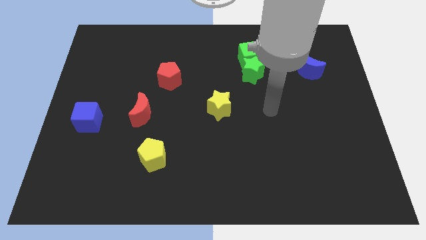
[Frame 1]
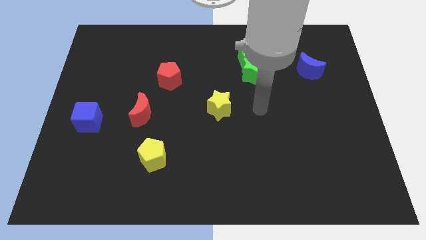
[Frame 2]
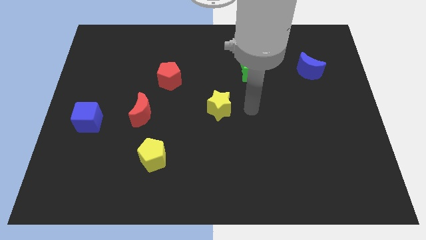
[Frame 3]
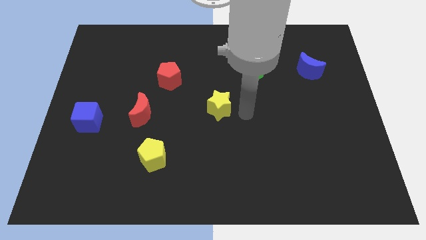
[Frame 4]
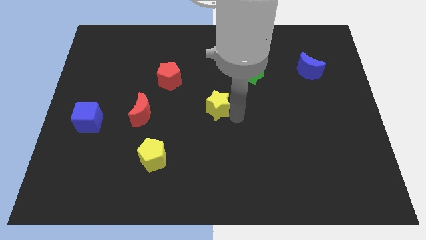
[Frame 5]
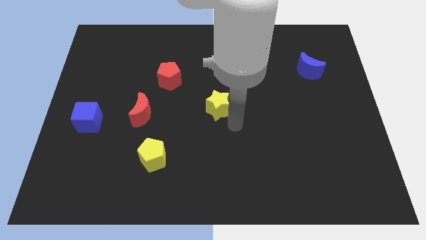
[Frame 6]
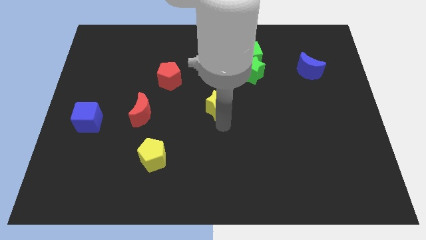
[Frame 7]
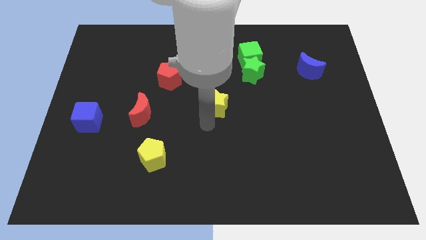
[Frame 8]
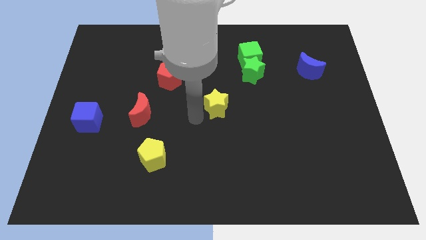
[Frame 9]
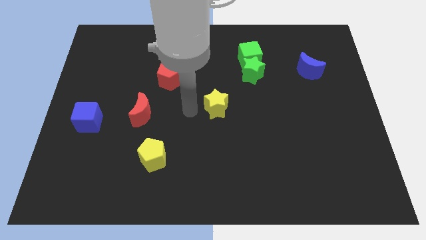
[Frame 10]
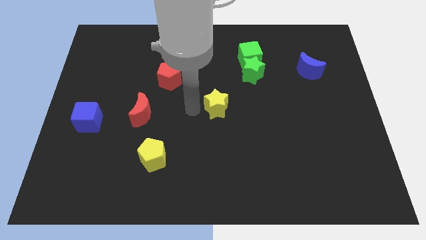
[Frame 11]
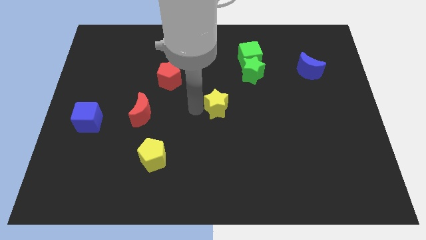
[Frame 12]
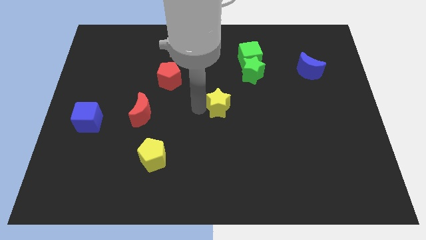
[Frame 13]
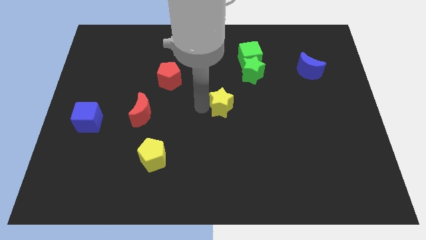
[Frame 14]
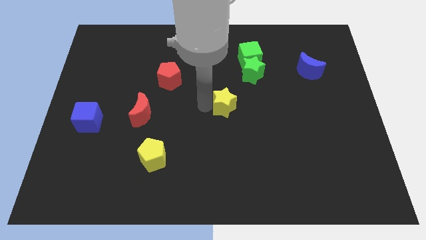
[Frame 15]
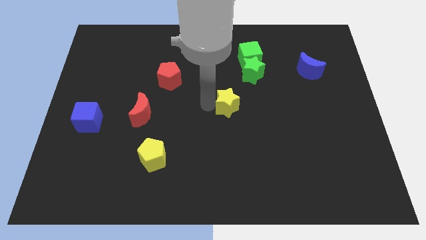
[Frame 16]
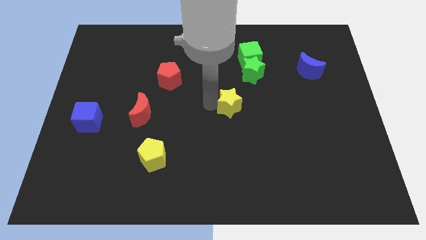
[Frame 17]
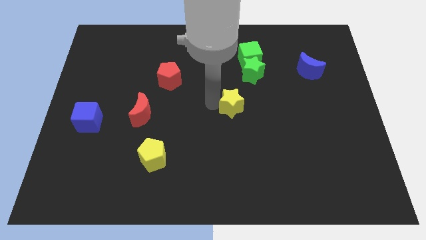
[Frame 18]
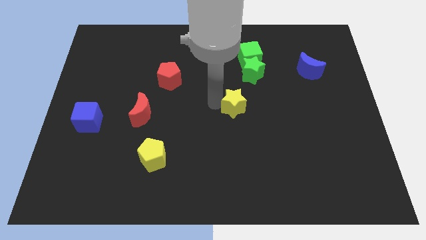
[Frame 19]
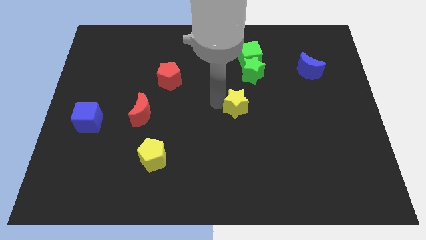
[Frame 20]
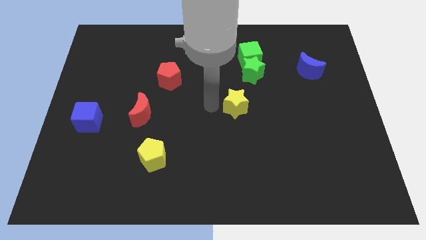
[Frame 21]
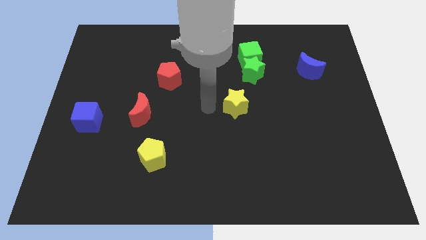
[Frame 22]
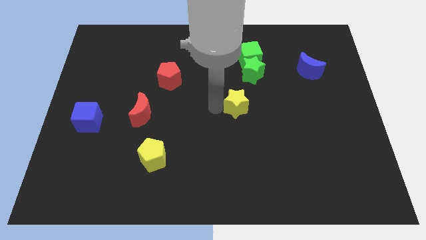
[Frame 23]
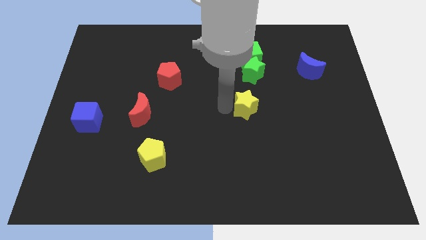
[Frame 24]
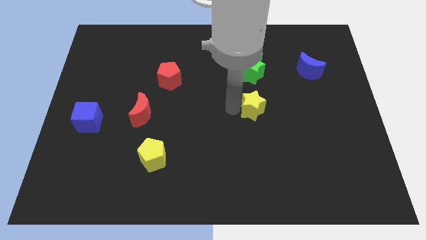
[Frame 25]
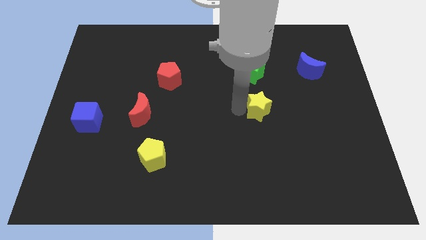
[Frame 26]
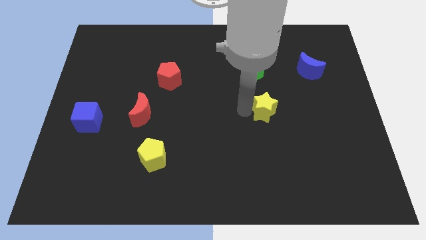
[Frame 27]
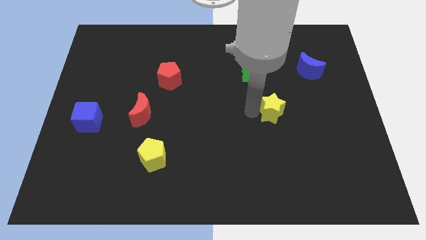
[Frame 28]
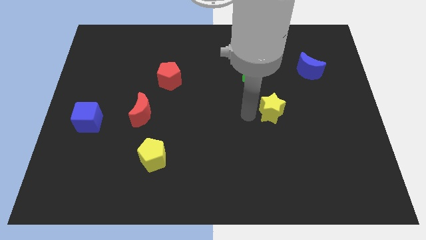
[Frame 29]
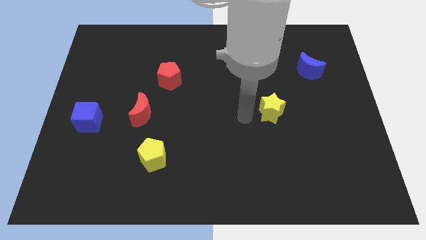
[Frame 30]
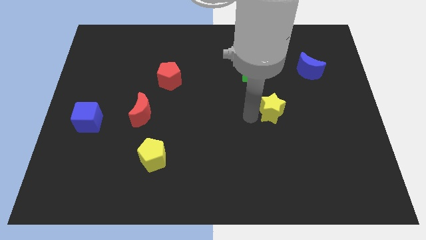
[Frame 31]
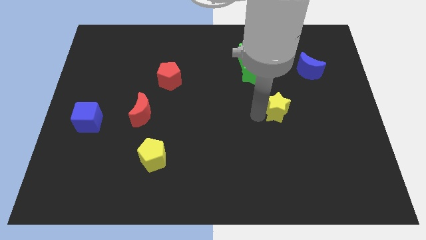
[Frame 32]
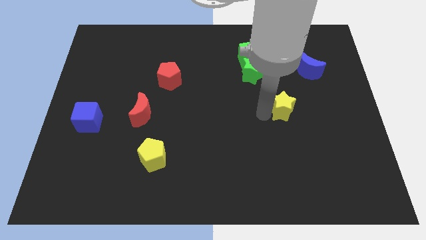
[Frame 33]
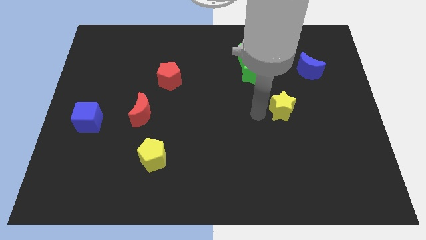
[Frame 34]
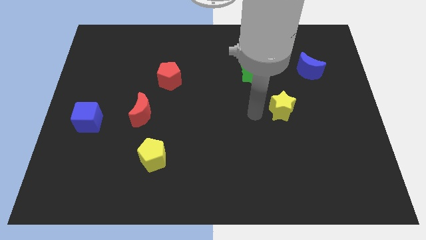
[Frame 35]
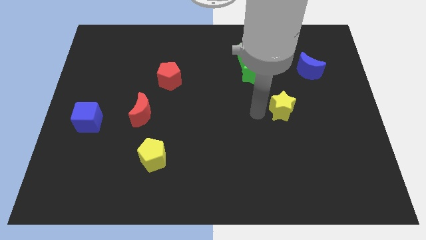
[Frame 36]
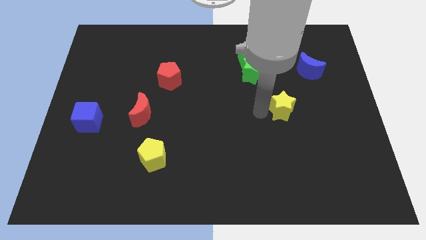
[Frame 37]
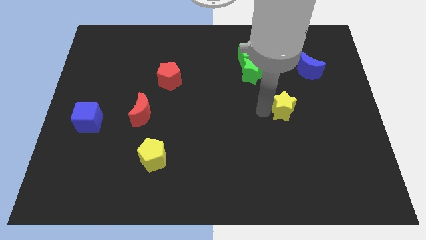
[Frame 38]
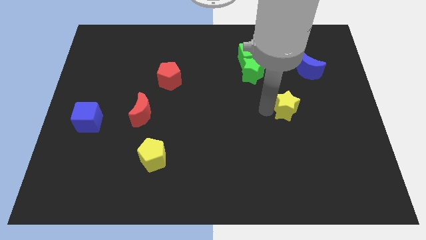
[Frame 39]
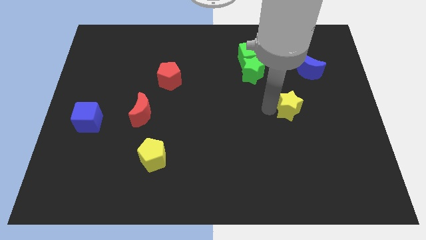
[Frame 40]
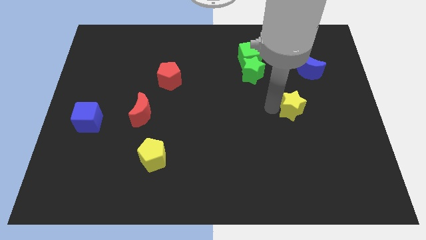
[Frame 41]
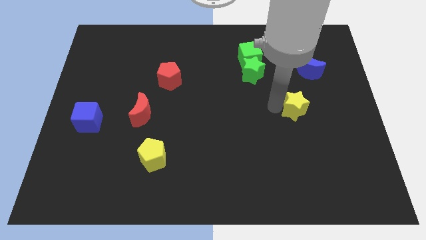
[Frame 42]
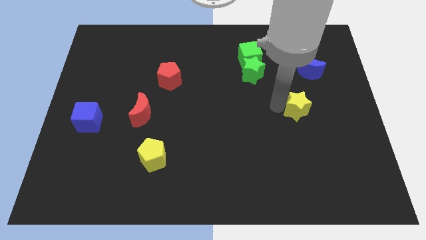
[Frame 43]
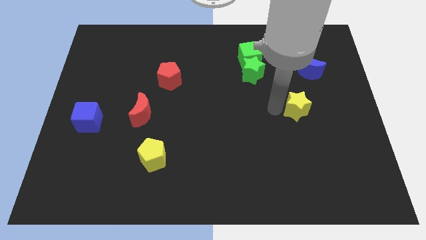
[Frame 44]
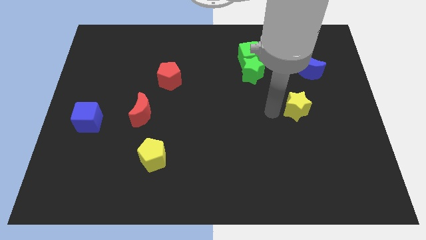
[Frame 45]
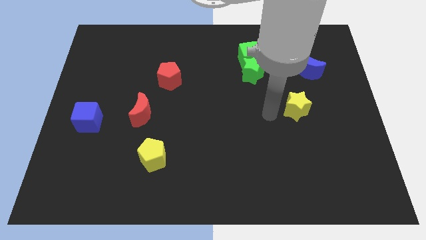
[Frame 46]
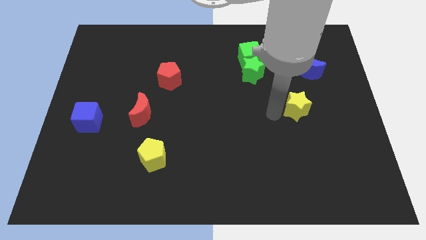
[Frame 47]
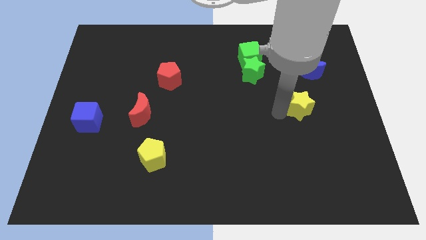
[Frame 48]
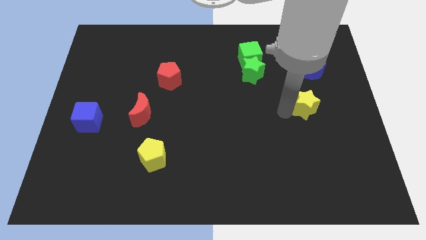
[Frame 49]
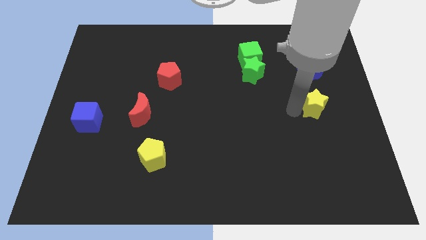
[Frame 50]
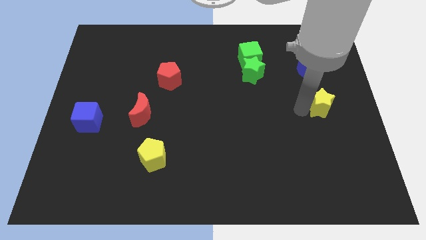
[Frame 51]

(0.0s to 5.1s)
slide the yellow star to the right side of the board

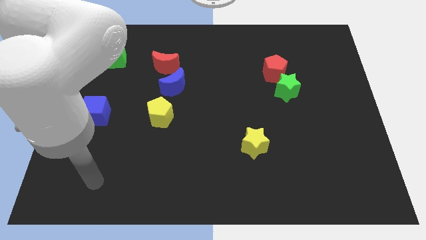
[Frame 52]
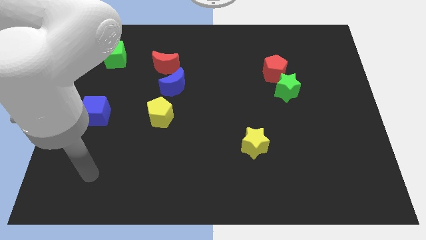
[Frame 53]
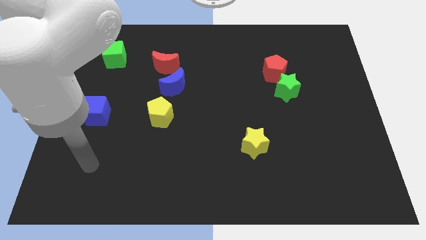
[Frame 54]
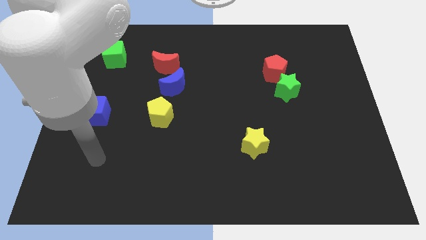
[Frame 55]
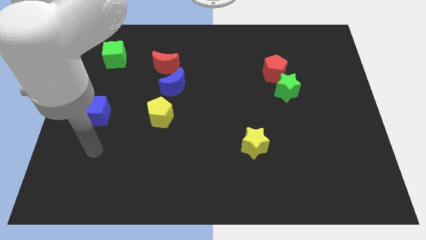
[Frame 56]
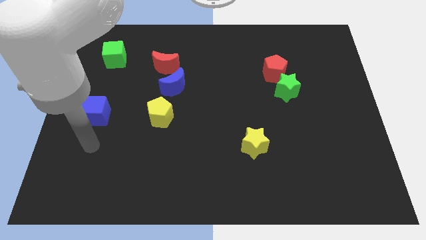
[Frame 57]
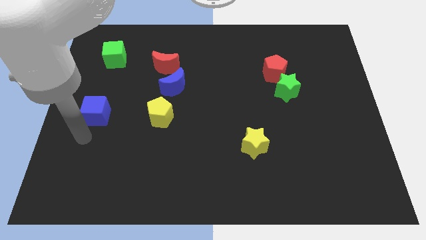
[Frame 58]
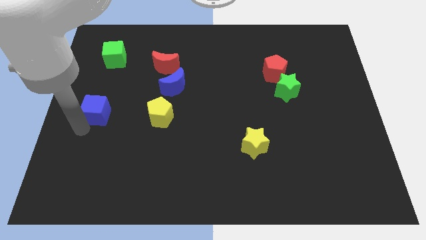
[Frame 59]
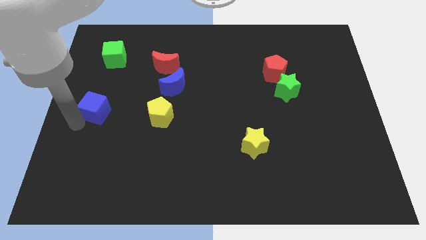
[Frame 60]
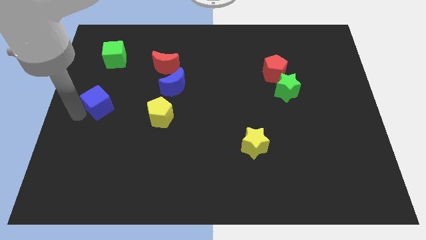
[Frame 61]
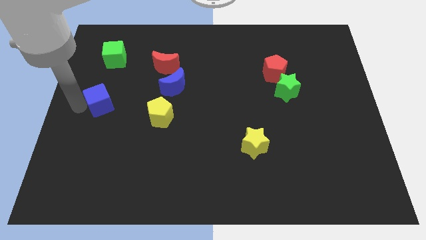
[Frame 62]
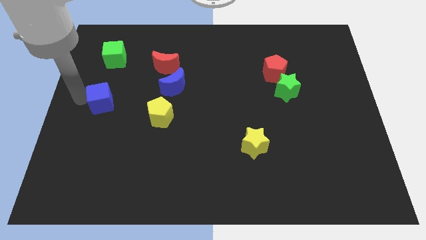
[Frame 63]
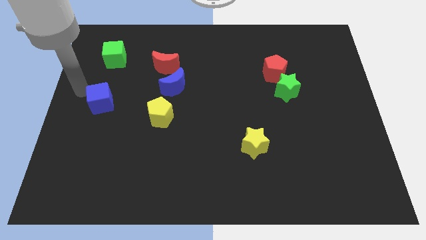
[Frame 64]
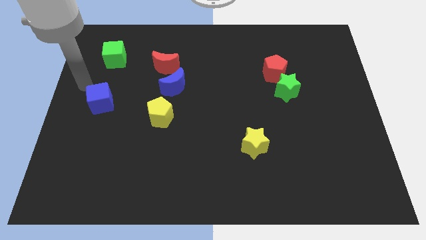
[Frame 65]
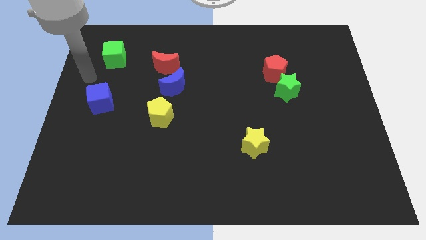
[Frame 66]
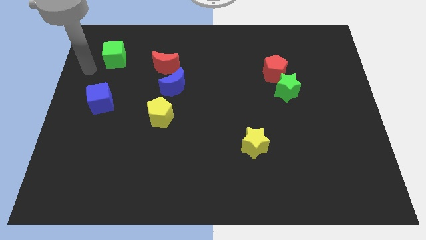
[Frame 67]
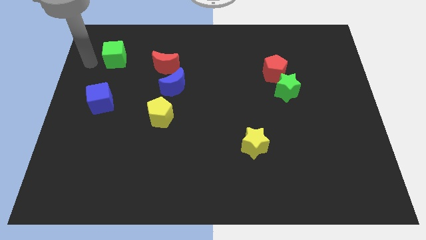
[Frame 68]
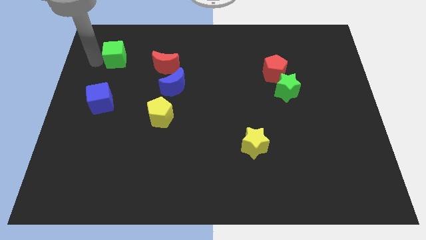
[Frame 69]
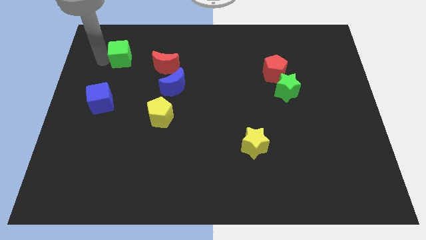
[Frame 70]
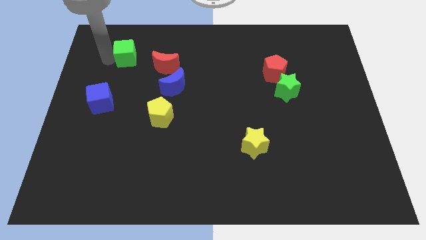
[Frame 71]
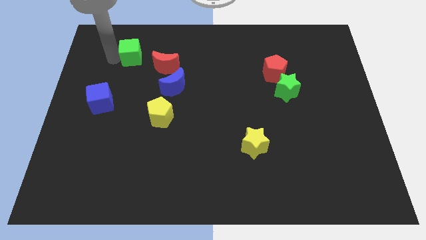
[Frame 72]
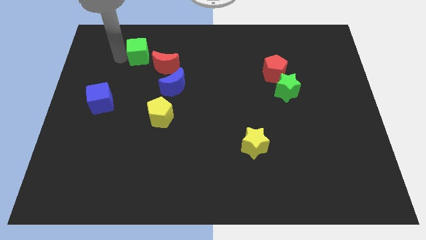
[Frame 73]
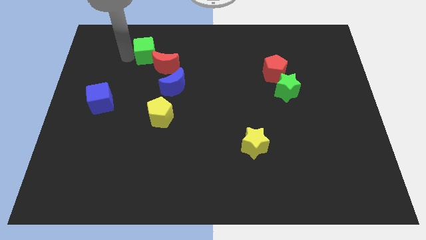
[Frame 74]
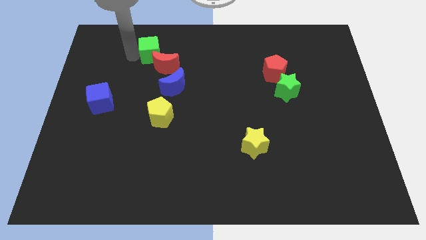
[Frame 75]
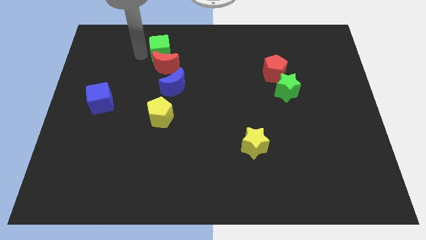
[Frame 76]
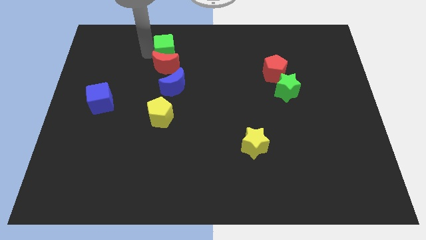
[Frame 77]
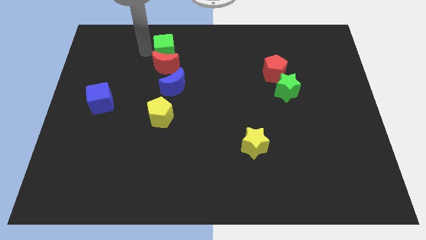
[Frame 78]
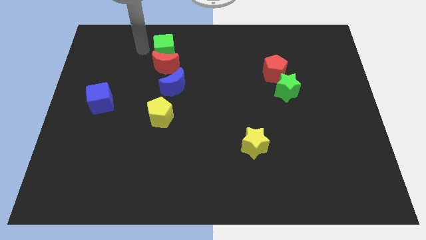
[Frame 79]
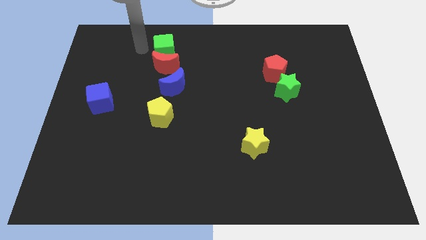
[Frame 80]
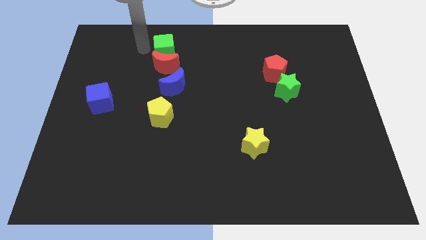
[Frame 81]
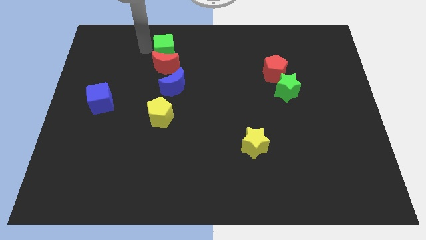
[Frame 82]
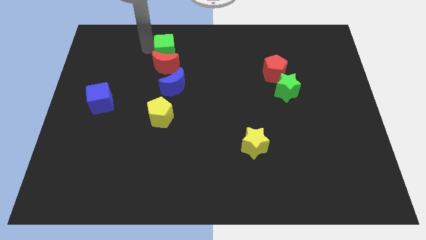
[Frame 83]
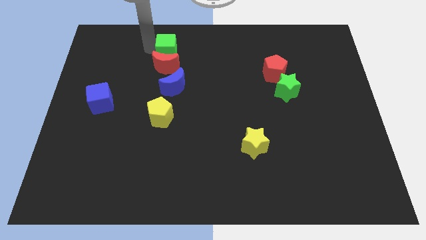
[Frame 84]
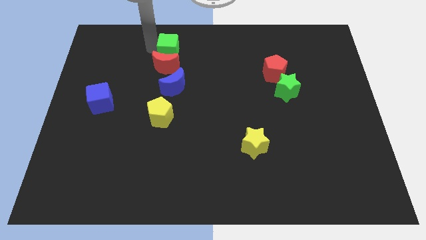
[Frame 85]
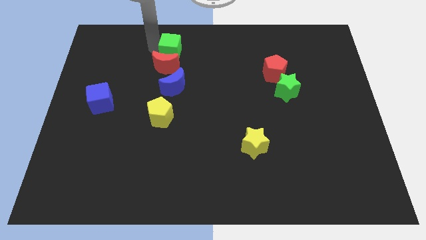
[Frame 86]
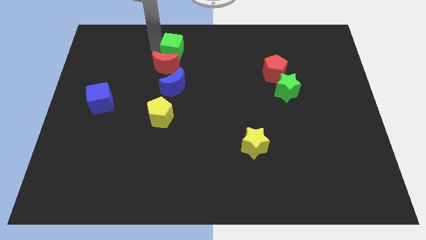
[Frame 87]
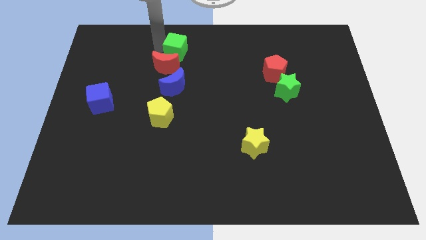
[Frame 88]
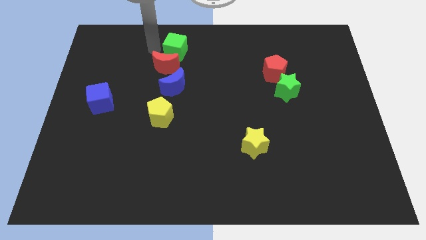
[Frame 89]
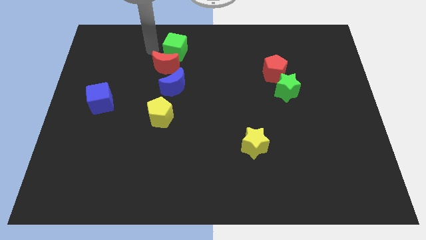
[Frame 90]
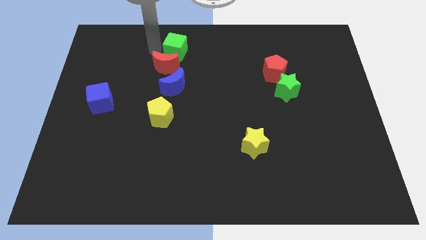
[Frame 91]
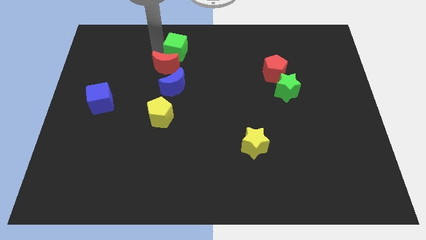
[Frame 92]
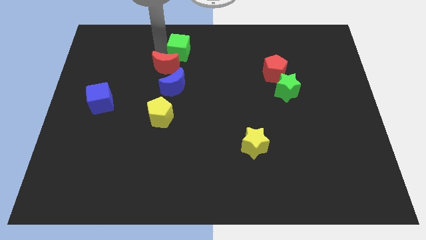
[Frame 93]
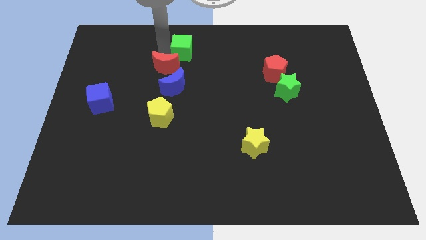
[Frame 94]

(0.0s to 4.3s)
put the green cube to the top
